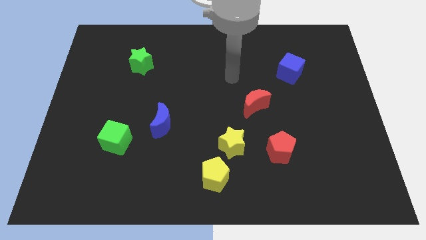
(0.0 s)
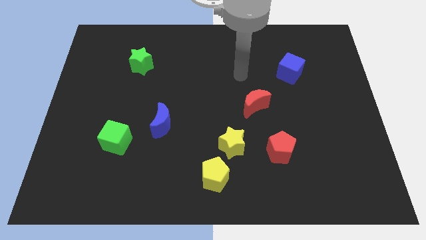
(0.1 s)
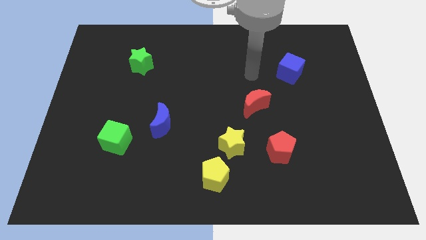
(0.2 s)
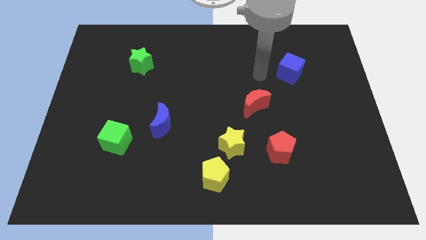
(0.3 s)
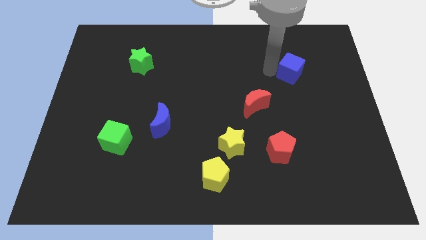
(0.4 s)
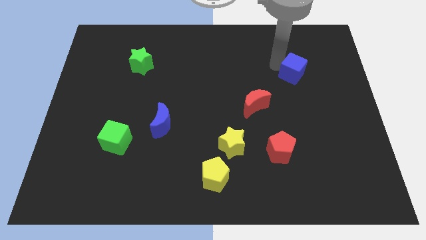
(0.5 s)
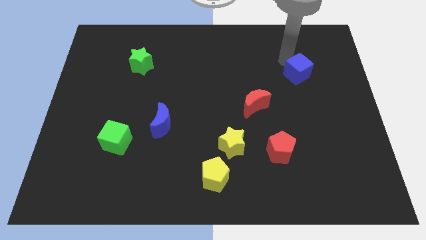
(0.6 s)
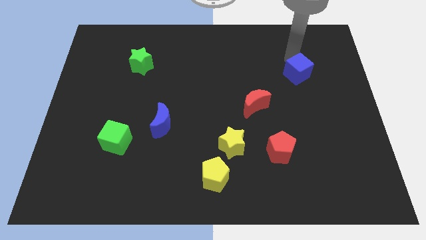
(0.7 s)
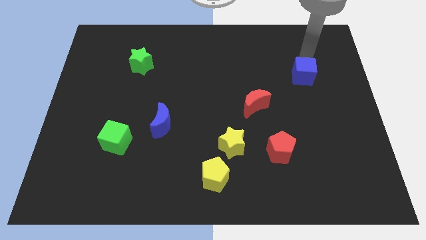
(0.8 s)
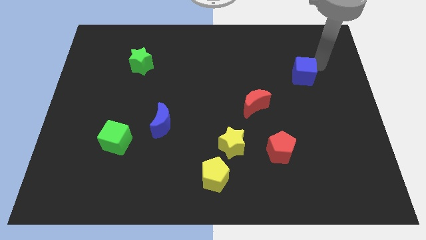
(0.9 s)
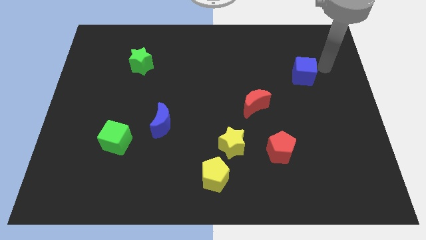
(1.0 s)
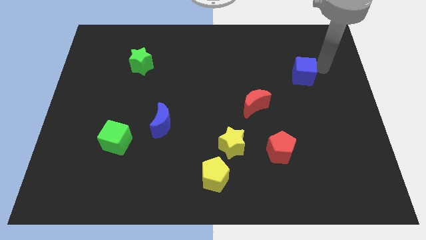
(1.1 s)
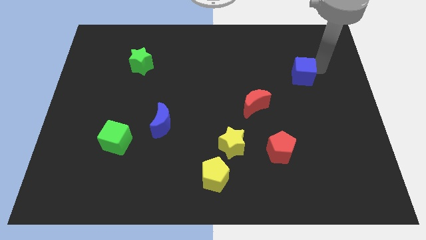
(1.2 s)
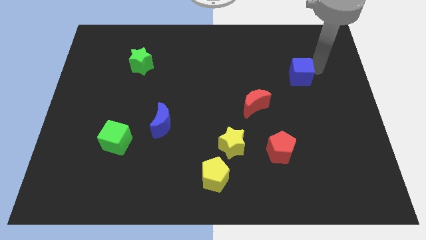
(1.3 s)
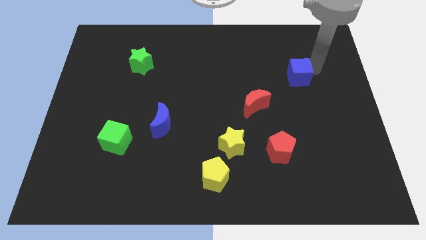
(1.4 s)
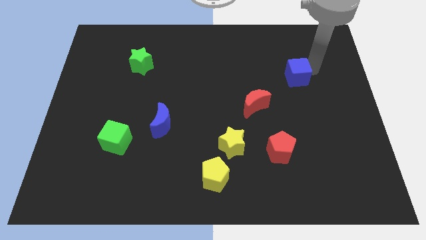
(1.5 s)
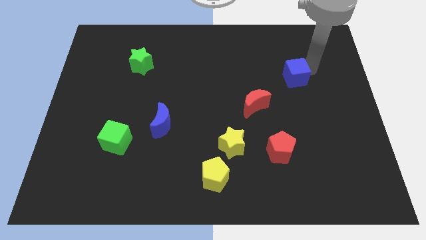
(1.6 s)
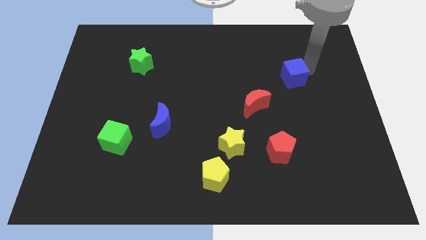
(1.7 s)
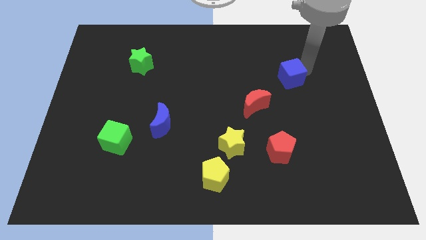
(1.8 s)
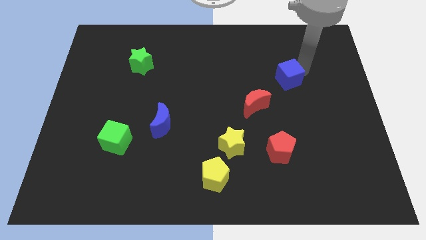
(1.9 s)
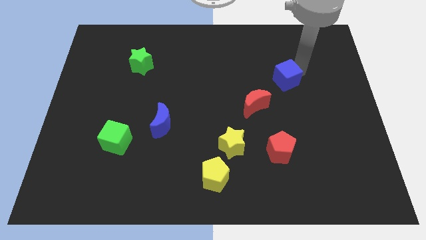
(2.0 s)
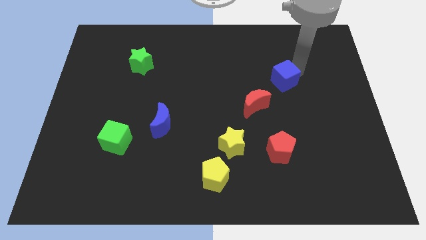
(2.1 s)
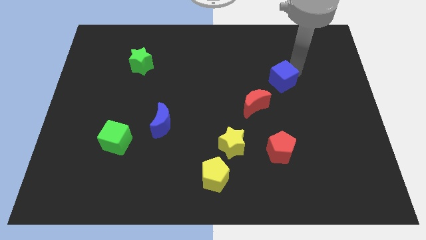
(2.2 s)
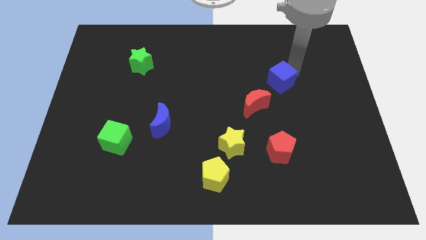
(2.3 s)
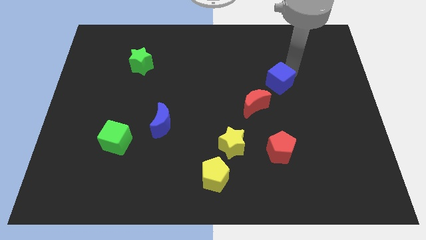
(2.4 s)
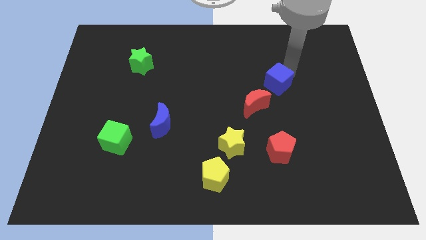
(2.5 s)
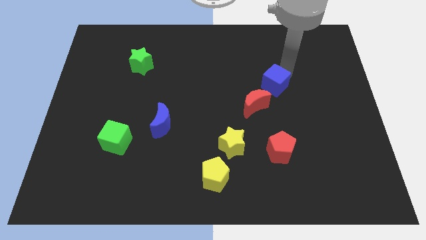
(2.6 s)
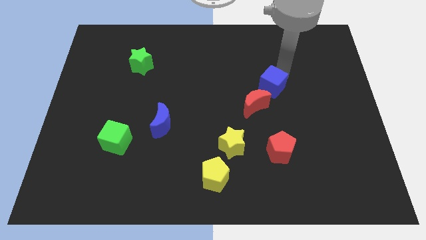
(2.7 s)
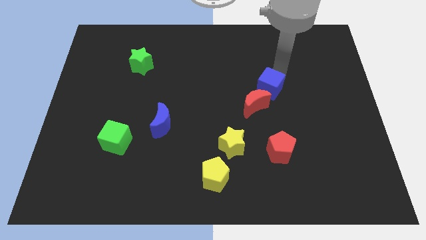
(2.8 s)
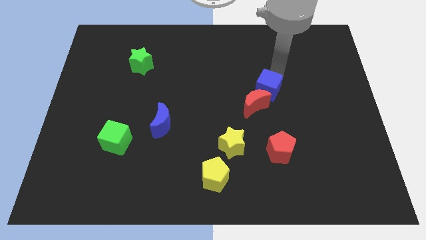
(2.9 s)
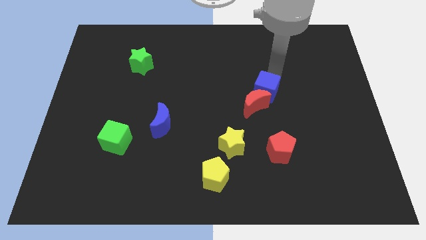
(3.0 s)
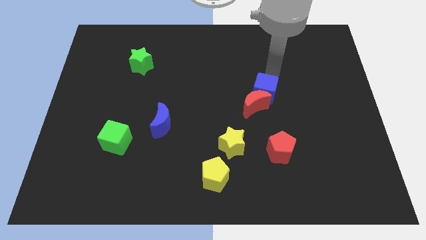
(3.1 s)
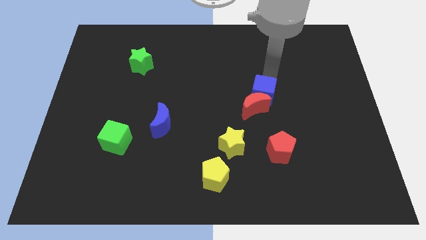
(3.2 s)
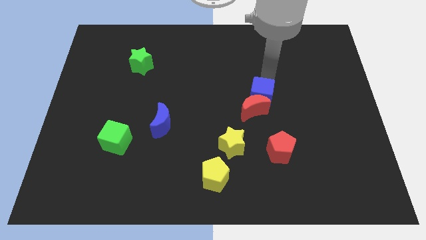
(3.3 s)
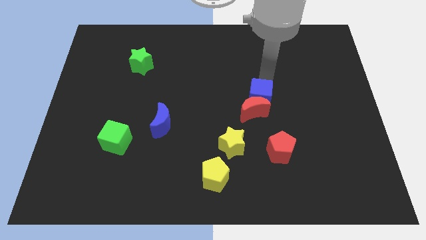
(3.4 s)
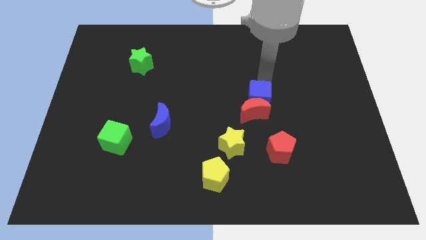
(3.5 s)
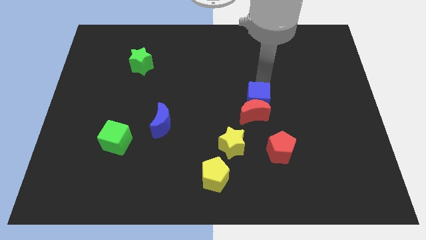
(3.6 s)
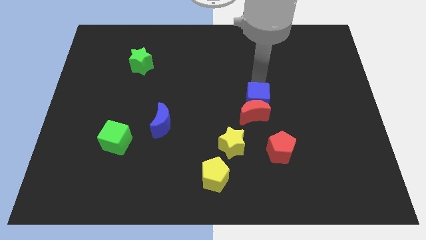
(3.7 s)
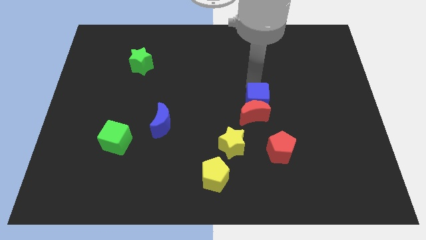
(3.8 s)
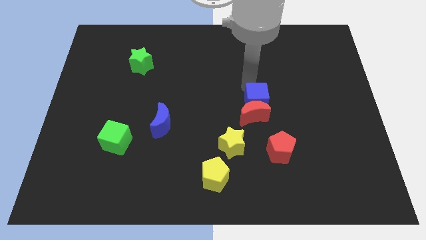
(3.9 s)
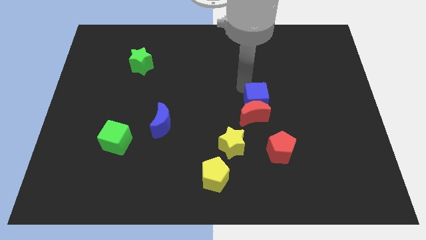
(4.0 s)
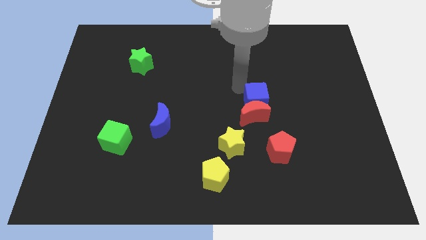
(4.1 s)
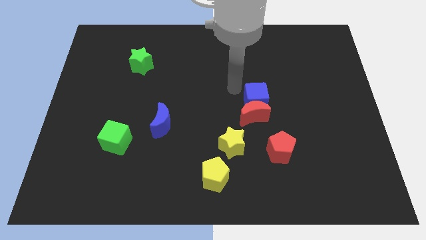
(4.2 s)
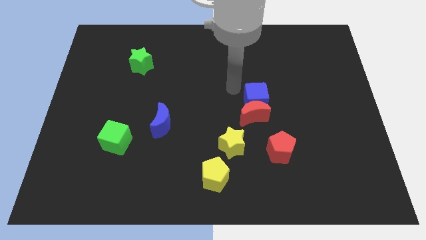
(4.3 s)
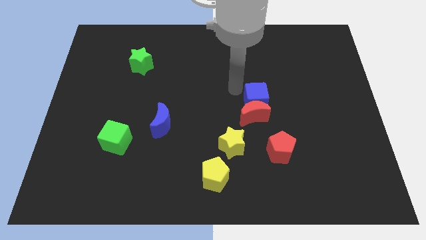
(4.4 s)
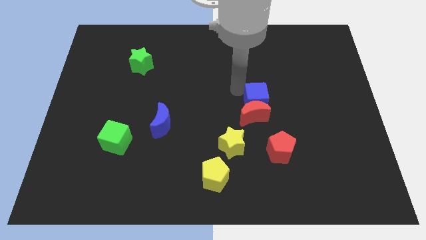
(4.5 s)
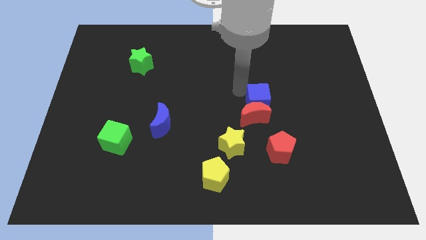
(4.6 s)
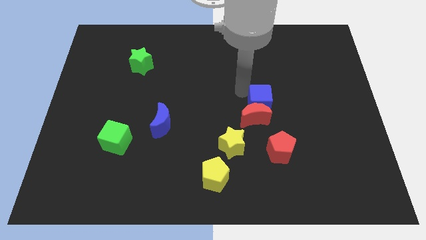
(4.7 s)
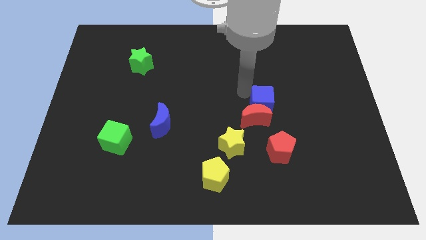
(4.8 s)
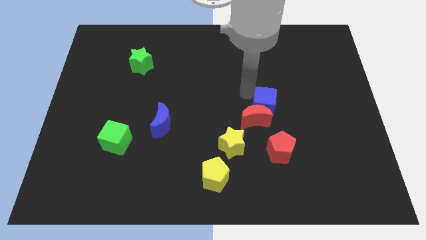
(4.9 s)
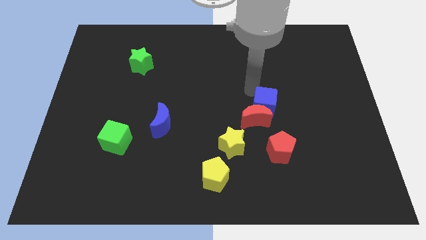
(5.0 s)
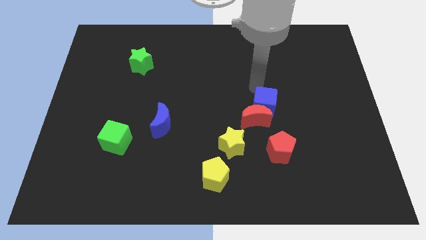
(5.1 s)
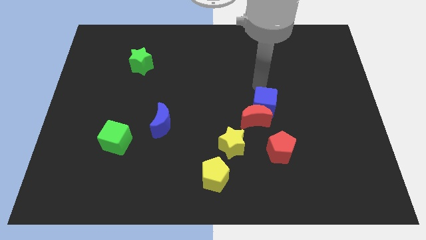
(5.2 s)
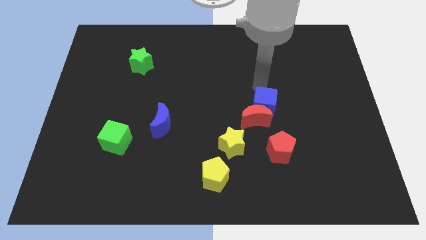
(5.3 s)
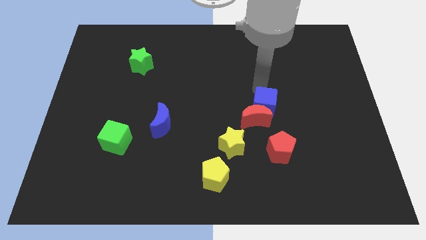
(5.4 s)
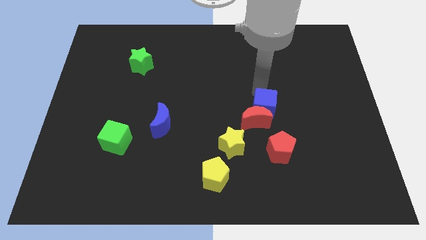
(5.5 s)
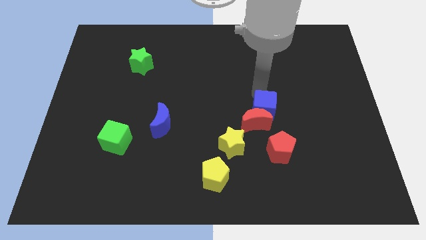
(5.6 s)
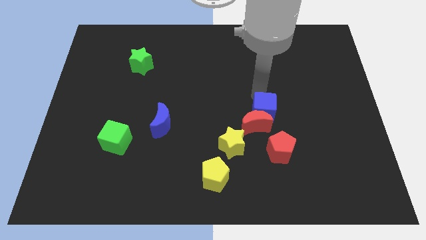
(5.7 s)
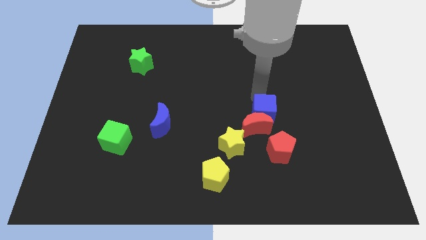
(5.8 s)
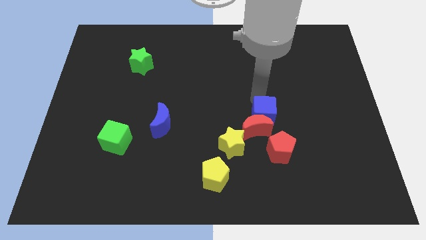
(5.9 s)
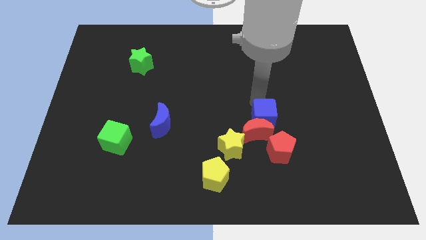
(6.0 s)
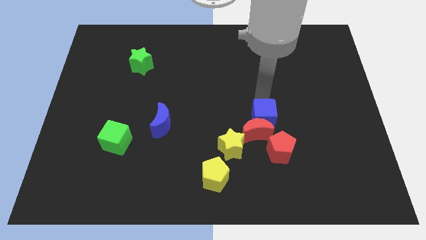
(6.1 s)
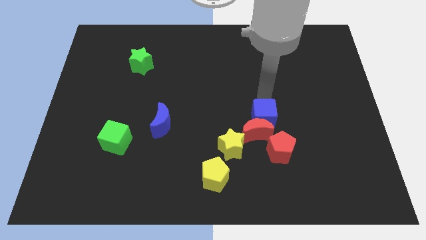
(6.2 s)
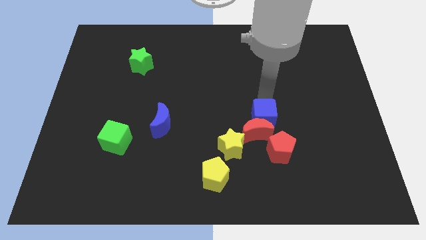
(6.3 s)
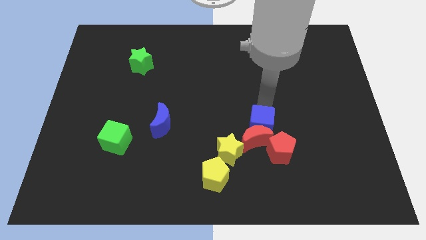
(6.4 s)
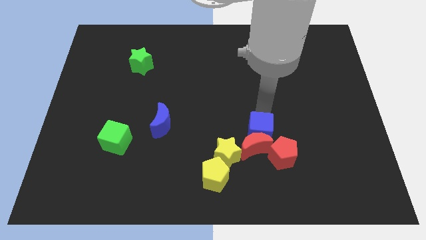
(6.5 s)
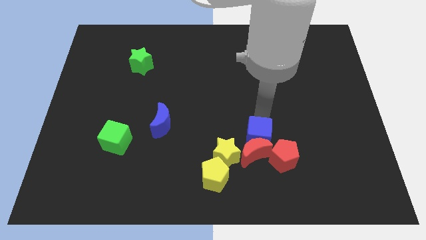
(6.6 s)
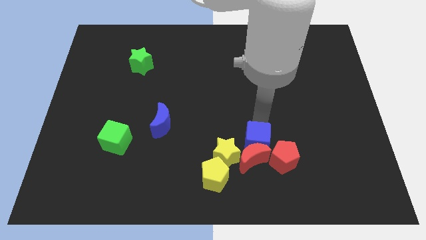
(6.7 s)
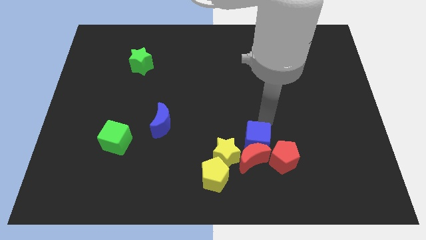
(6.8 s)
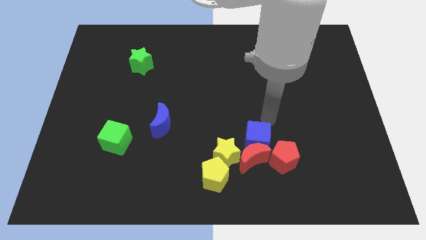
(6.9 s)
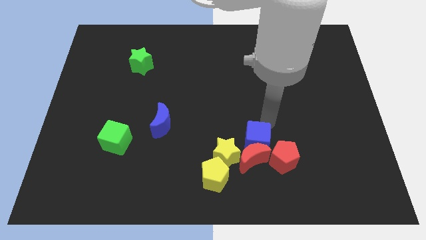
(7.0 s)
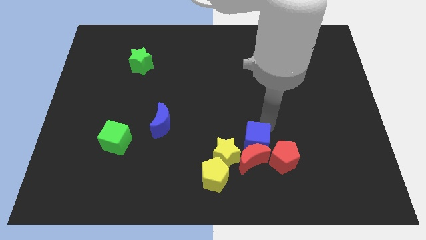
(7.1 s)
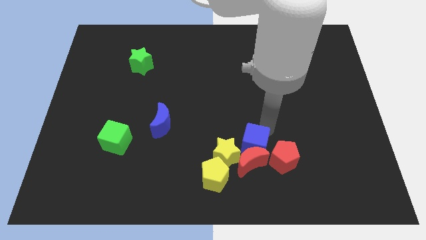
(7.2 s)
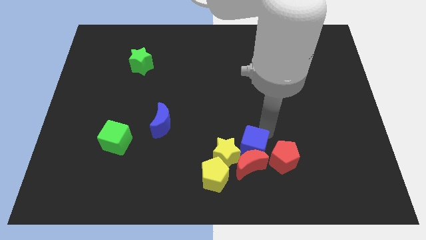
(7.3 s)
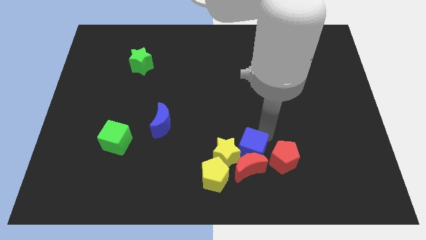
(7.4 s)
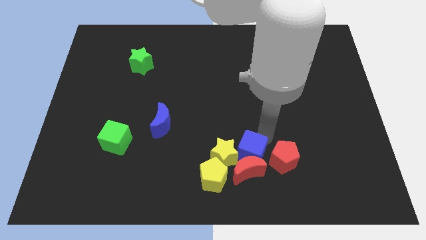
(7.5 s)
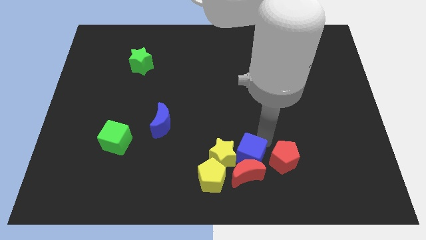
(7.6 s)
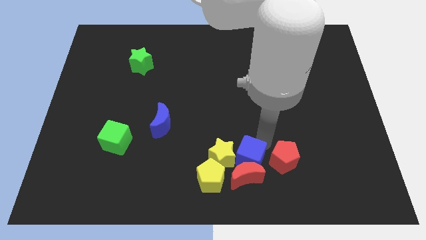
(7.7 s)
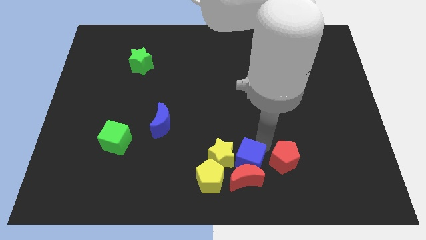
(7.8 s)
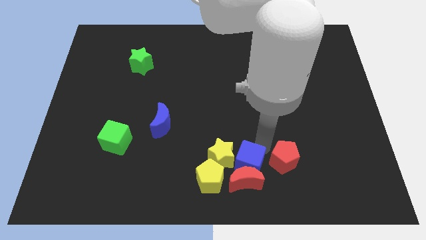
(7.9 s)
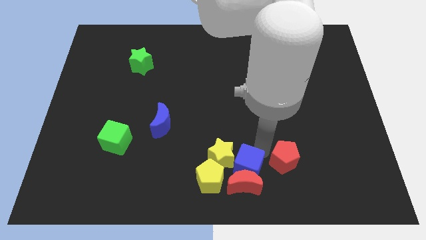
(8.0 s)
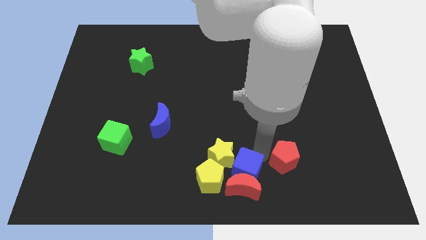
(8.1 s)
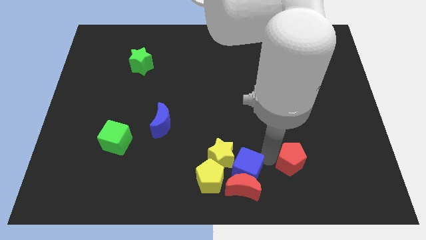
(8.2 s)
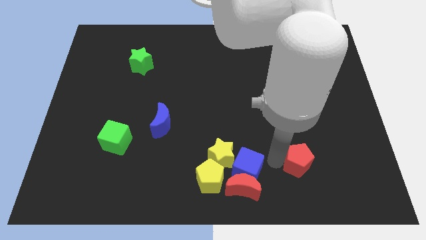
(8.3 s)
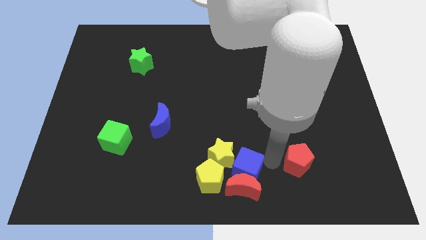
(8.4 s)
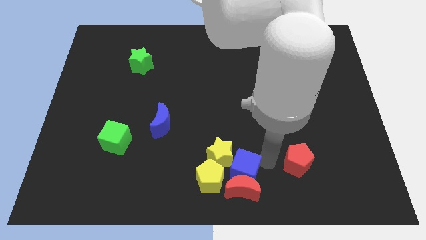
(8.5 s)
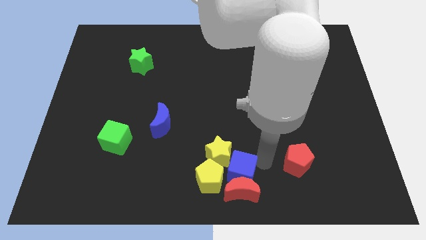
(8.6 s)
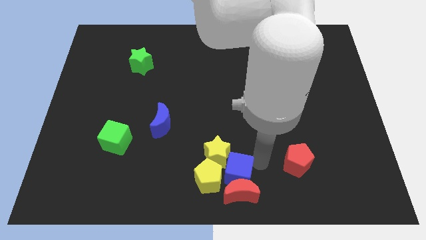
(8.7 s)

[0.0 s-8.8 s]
slide the blue cube close to the yellow pentagon
